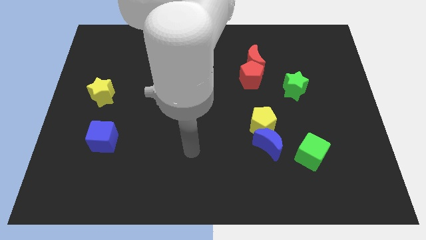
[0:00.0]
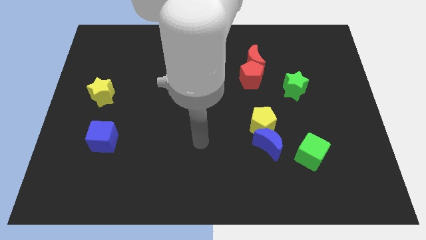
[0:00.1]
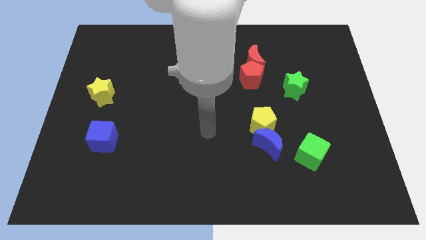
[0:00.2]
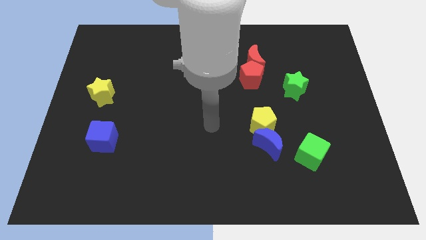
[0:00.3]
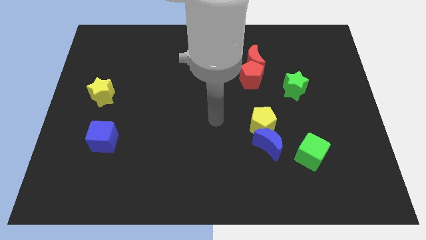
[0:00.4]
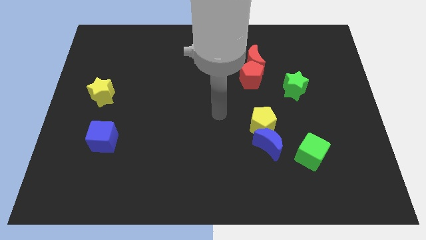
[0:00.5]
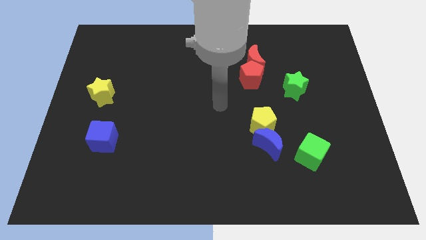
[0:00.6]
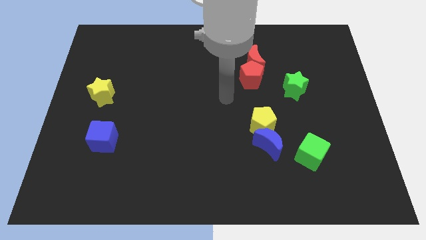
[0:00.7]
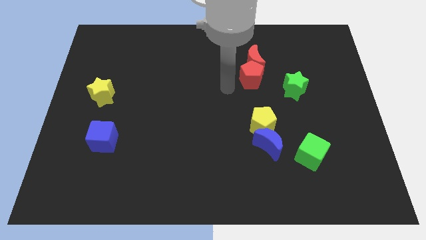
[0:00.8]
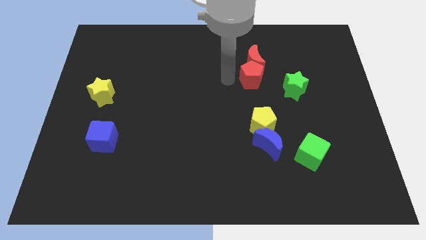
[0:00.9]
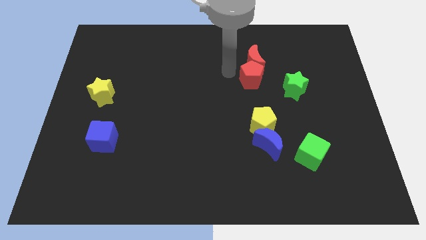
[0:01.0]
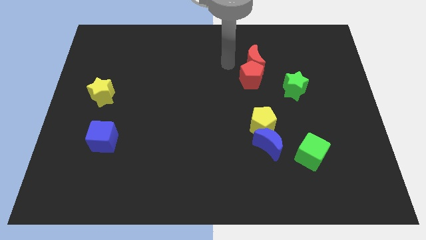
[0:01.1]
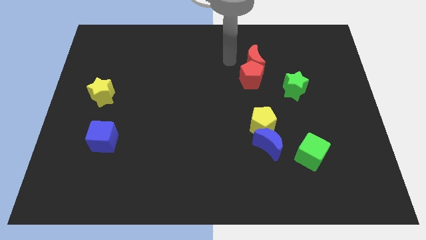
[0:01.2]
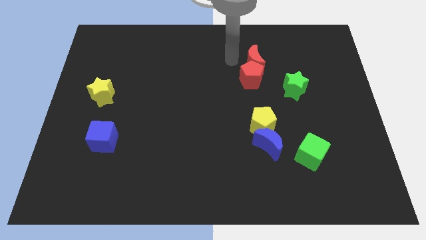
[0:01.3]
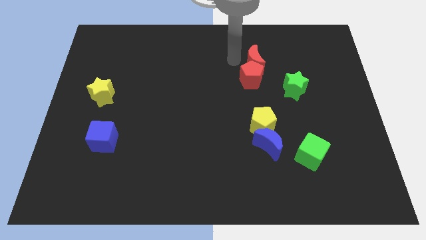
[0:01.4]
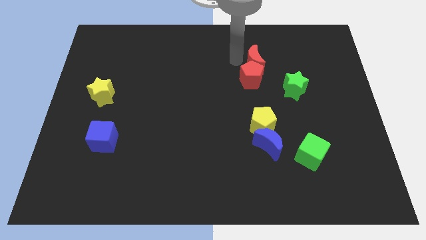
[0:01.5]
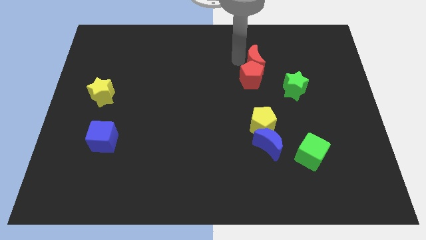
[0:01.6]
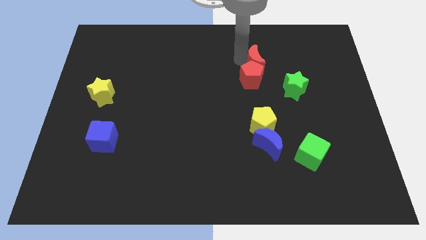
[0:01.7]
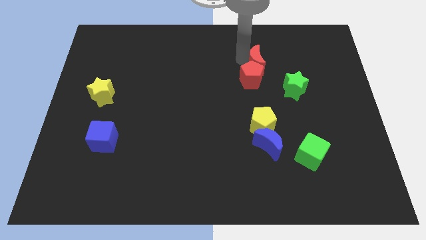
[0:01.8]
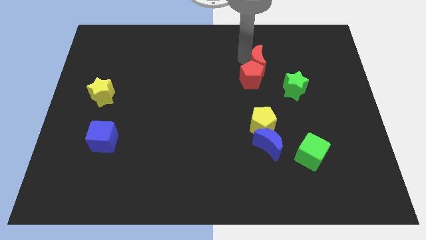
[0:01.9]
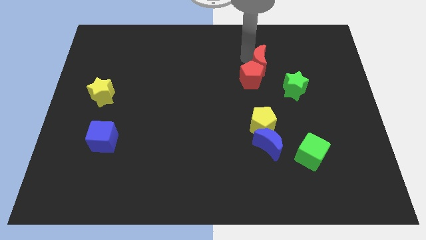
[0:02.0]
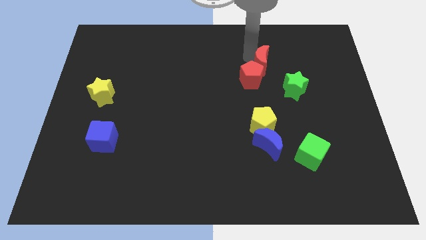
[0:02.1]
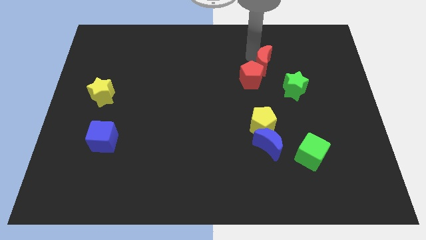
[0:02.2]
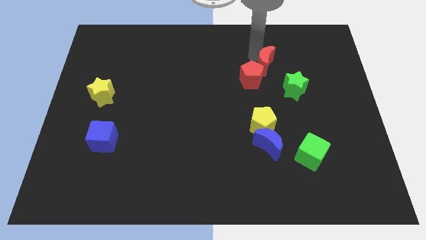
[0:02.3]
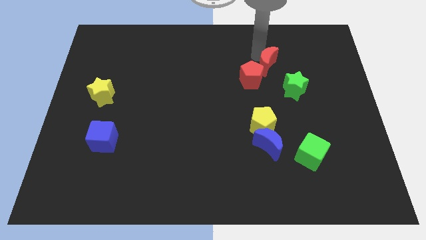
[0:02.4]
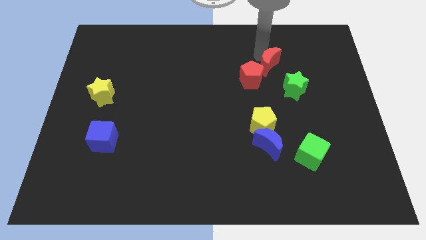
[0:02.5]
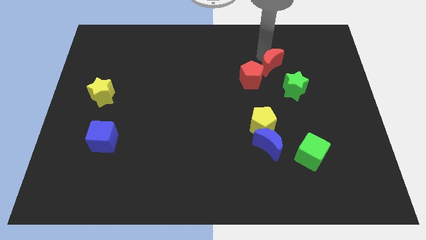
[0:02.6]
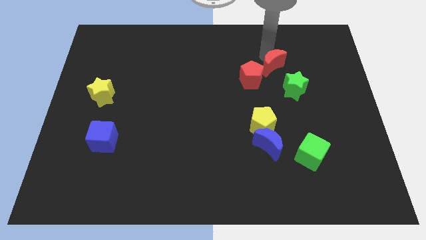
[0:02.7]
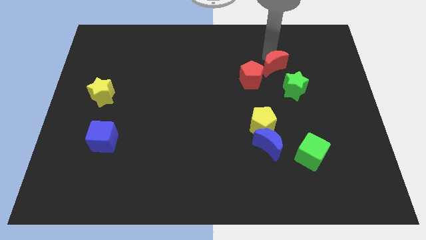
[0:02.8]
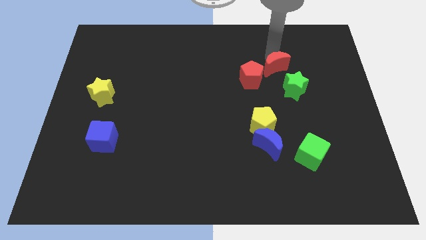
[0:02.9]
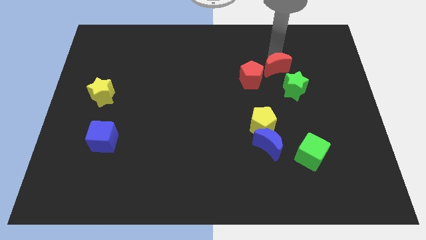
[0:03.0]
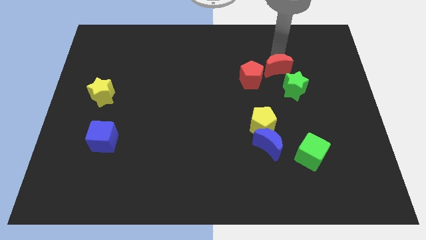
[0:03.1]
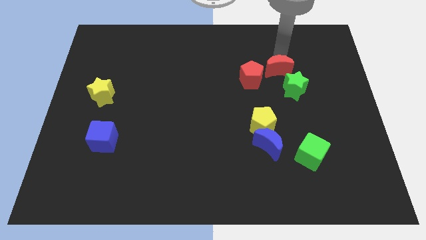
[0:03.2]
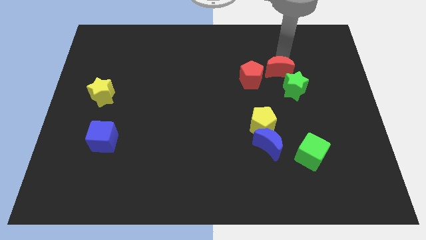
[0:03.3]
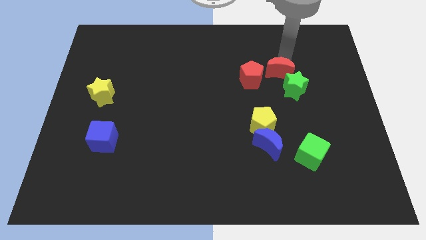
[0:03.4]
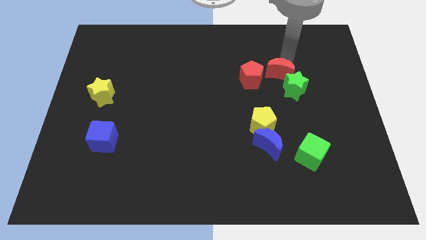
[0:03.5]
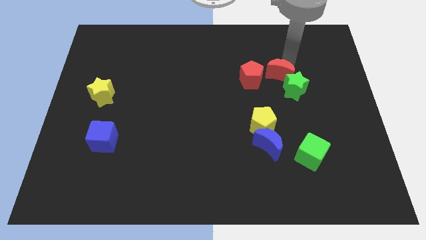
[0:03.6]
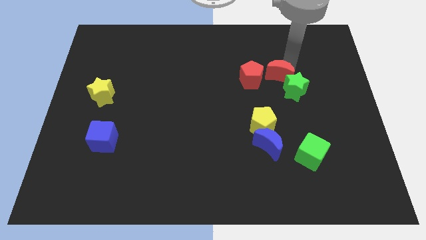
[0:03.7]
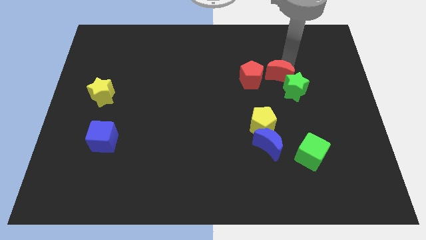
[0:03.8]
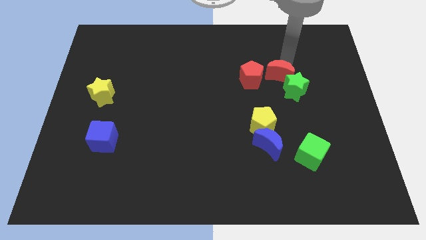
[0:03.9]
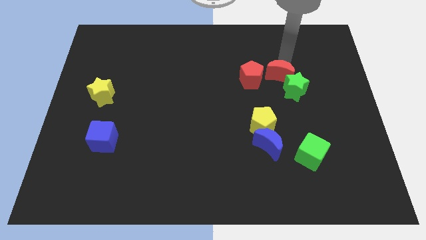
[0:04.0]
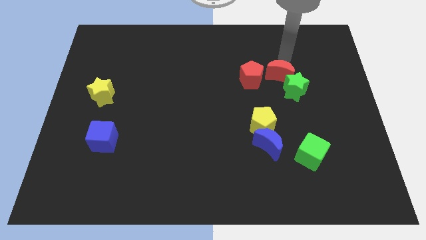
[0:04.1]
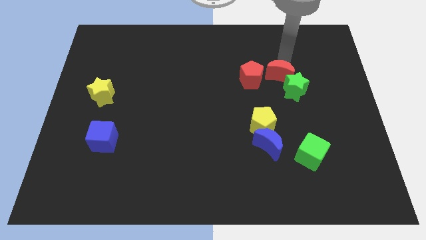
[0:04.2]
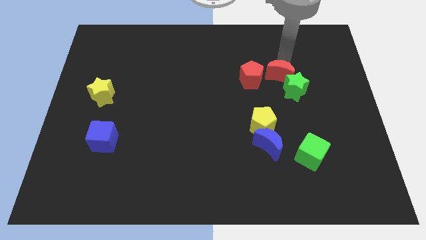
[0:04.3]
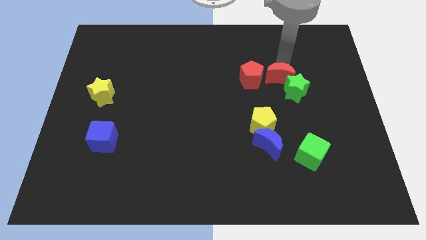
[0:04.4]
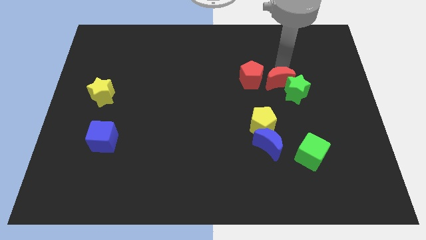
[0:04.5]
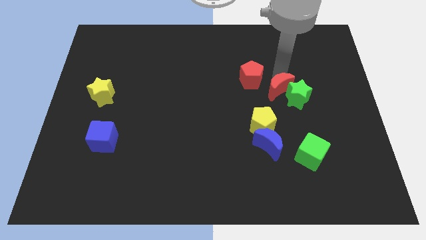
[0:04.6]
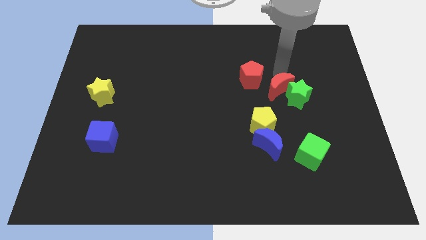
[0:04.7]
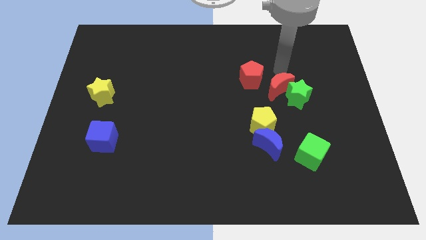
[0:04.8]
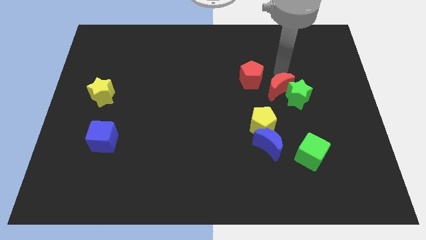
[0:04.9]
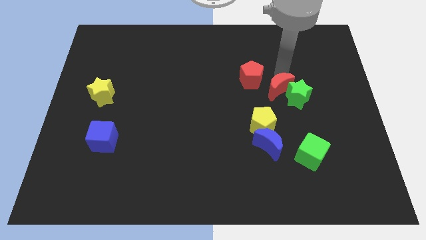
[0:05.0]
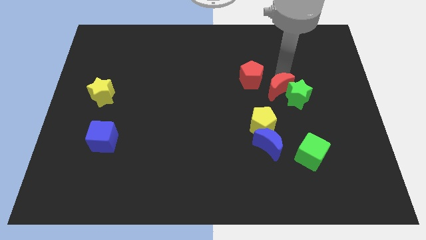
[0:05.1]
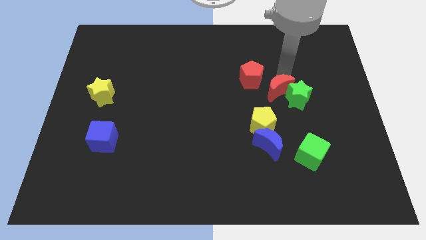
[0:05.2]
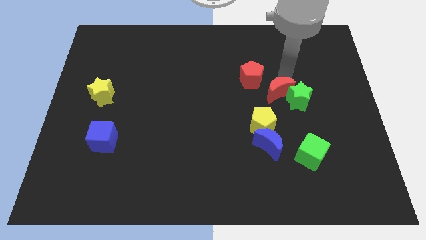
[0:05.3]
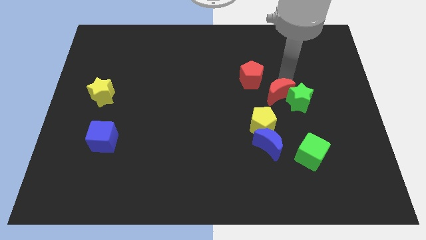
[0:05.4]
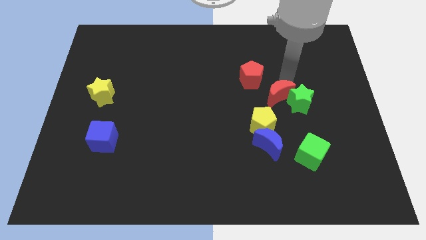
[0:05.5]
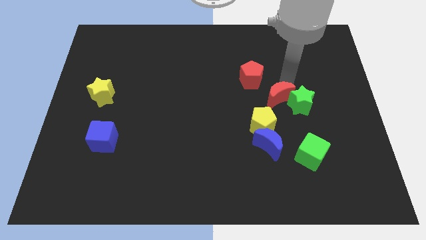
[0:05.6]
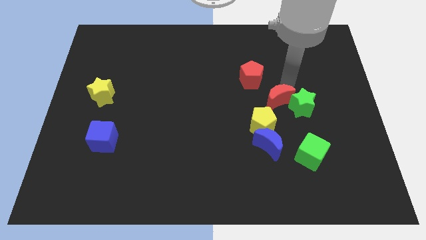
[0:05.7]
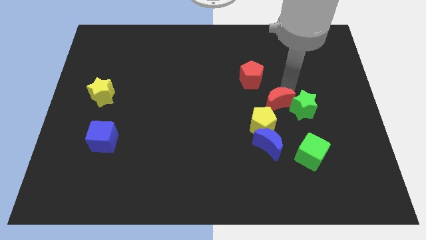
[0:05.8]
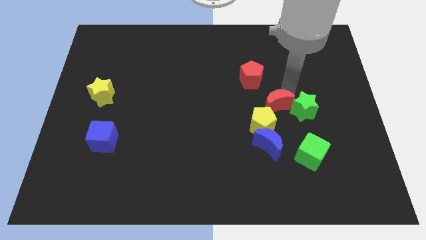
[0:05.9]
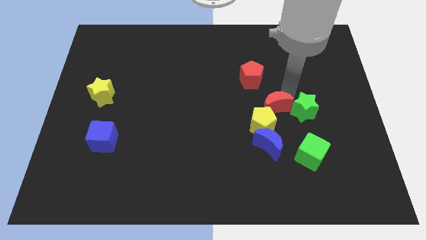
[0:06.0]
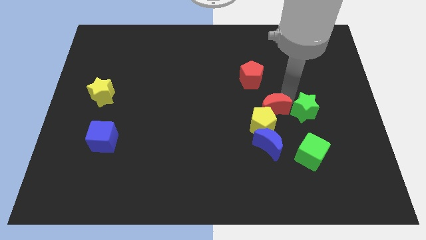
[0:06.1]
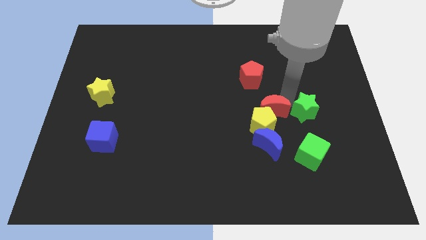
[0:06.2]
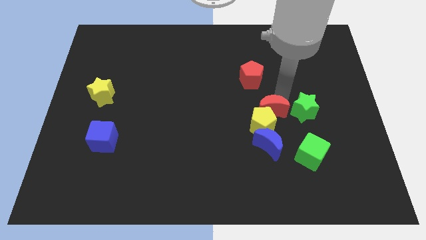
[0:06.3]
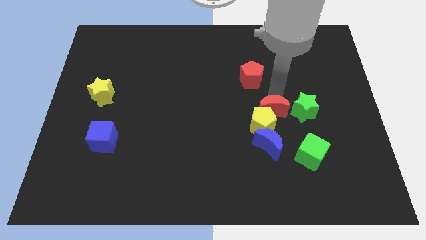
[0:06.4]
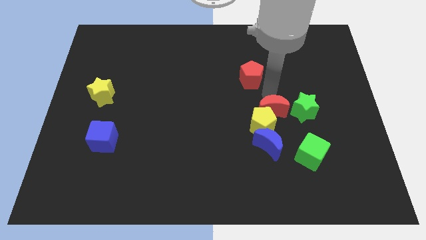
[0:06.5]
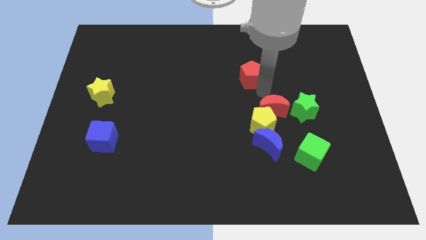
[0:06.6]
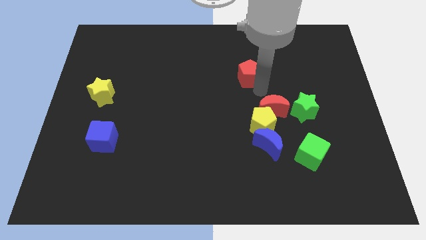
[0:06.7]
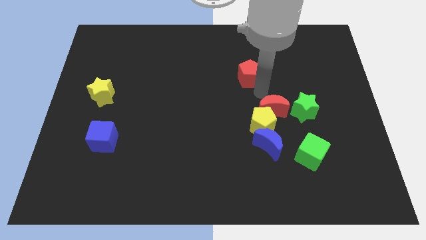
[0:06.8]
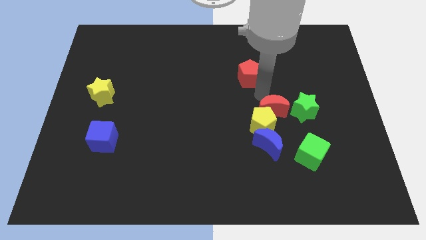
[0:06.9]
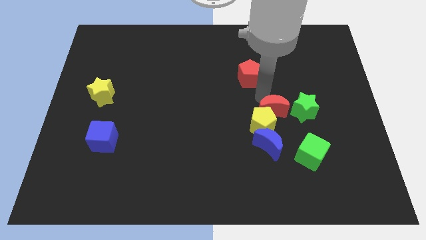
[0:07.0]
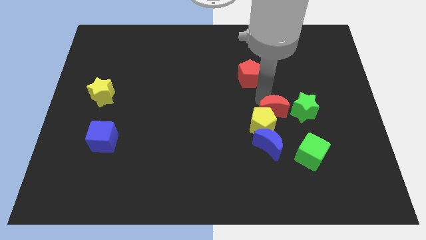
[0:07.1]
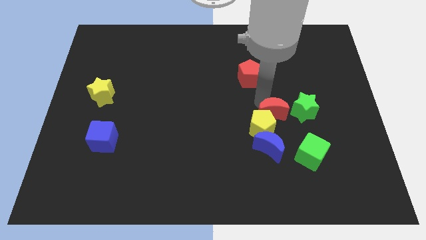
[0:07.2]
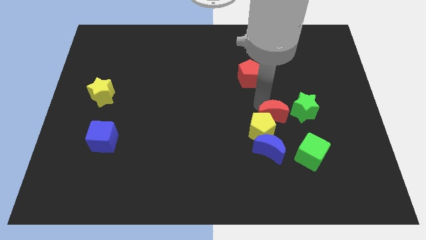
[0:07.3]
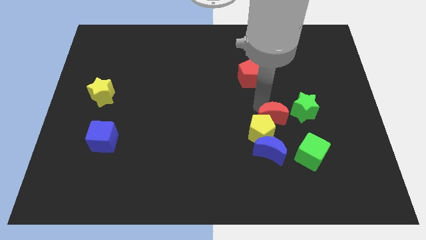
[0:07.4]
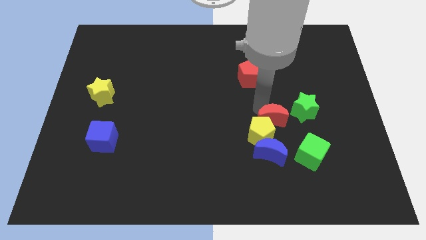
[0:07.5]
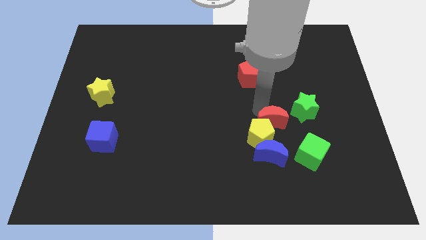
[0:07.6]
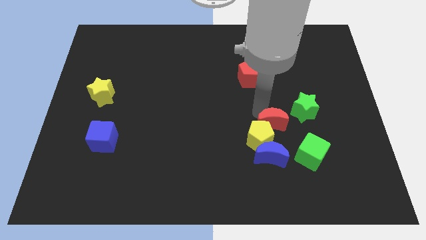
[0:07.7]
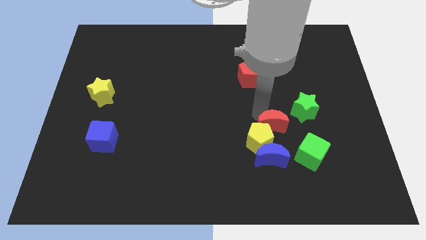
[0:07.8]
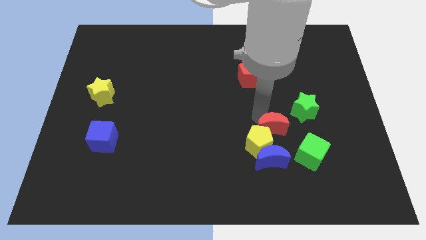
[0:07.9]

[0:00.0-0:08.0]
move the red moon down
